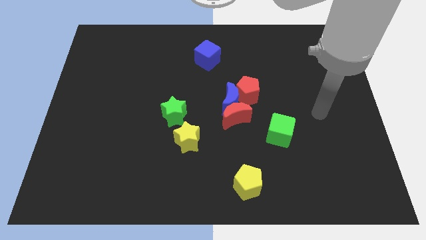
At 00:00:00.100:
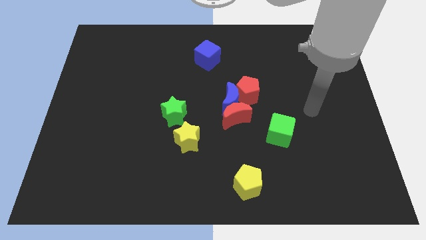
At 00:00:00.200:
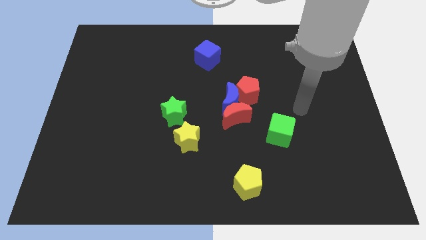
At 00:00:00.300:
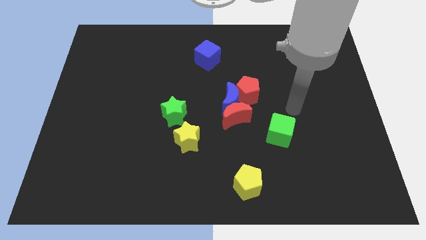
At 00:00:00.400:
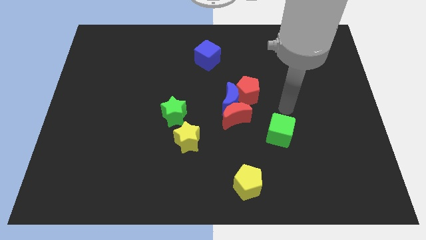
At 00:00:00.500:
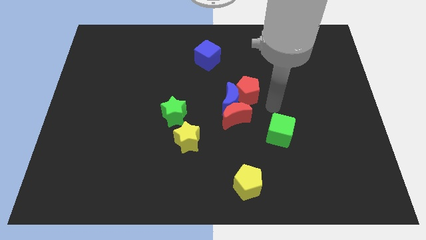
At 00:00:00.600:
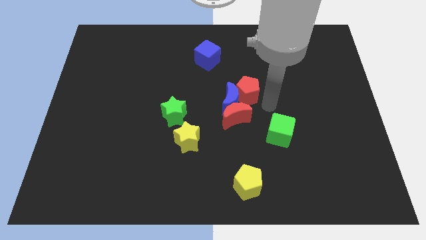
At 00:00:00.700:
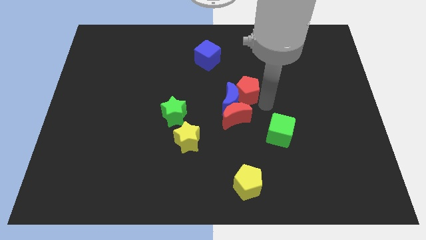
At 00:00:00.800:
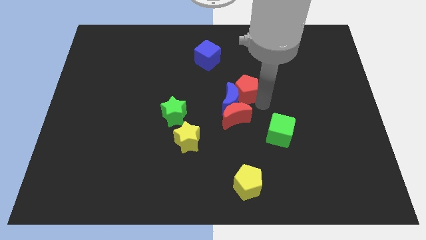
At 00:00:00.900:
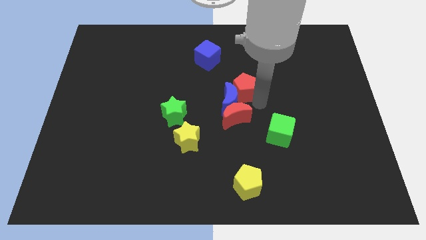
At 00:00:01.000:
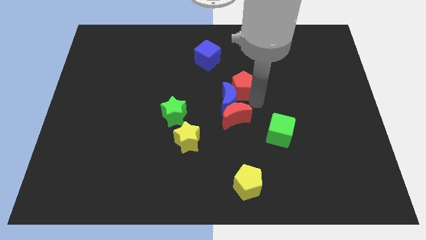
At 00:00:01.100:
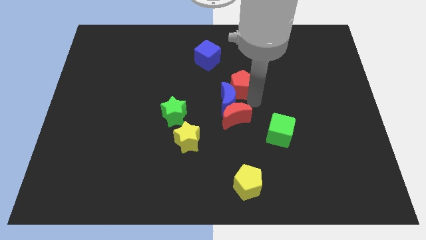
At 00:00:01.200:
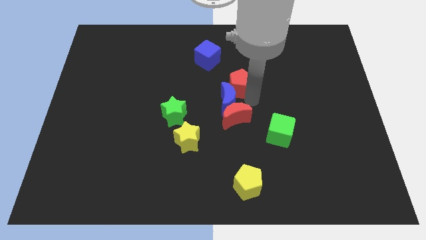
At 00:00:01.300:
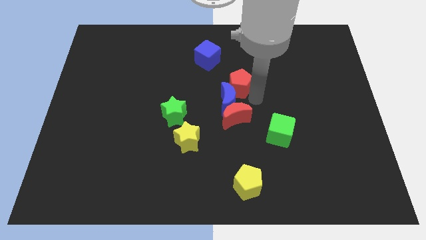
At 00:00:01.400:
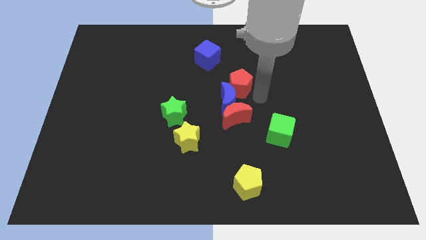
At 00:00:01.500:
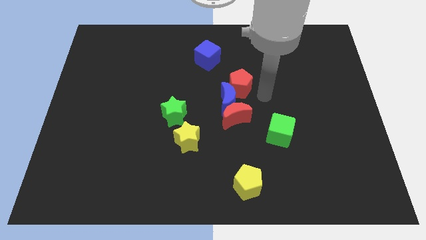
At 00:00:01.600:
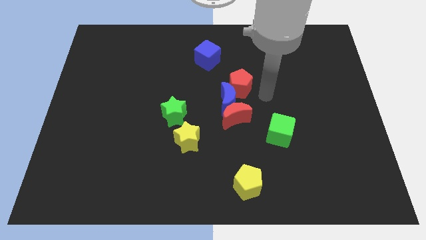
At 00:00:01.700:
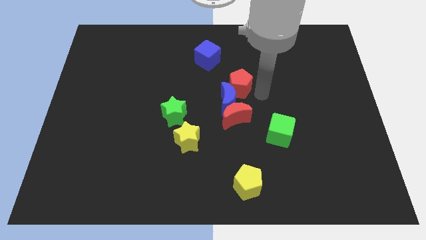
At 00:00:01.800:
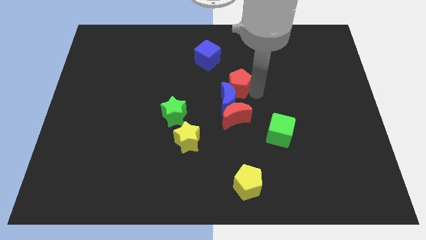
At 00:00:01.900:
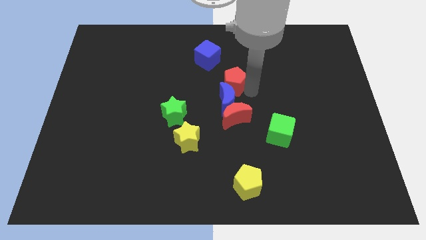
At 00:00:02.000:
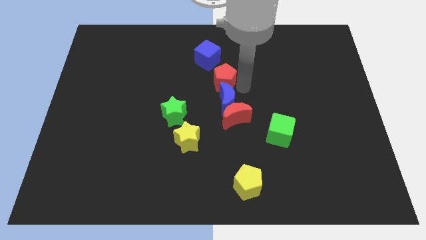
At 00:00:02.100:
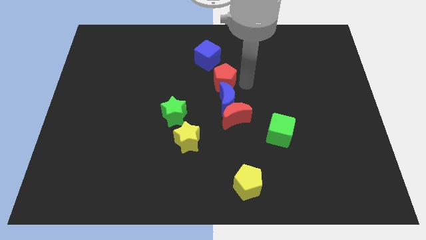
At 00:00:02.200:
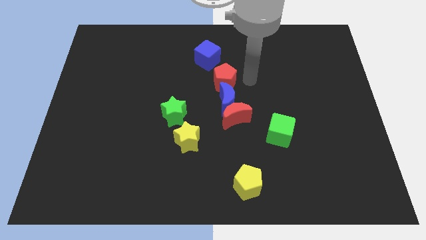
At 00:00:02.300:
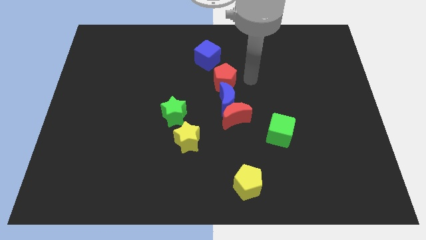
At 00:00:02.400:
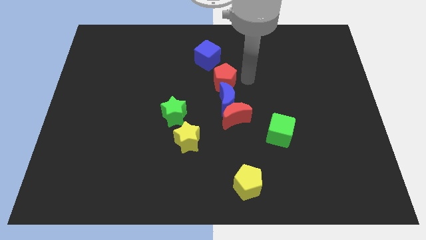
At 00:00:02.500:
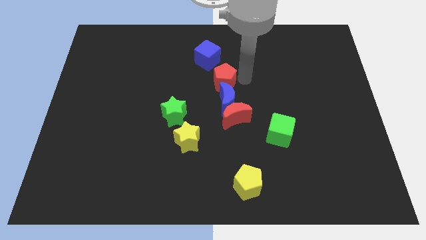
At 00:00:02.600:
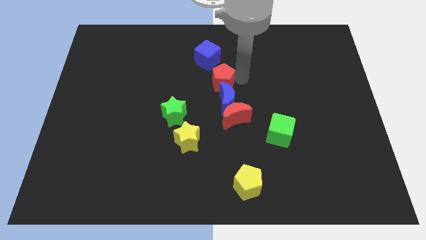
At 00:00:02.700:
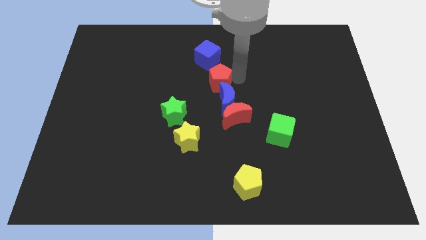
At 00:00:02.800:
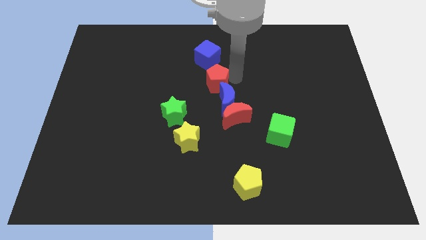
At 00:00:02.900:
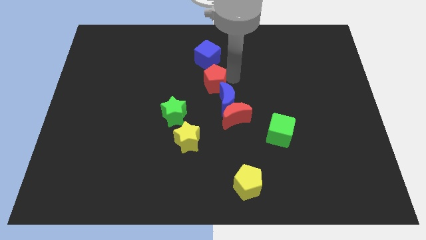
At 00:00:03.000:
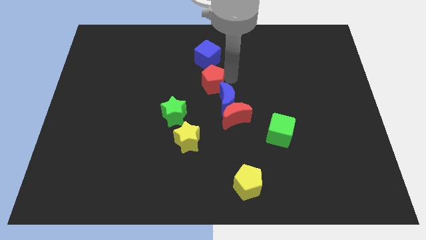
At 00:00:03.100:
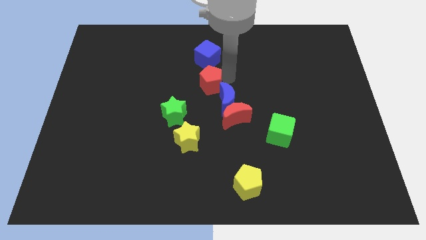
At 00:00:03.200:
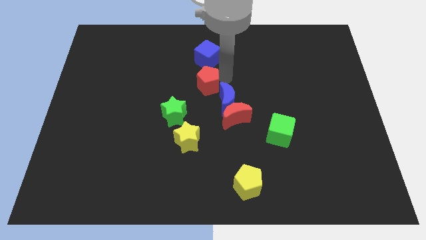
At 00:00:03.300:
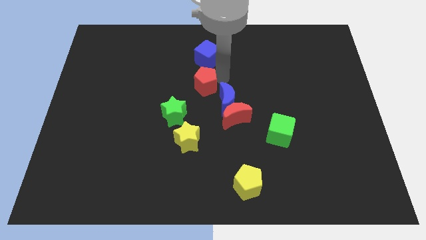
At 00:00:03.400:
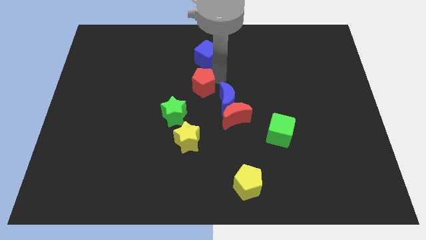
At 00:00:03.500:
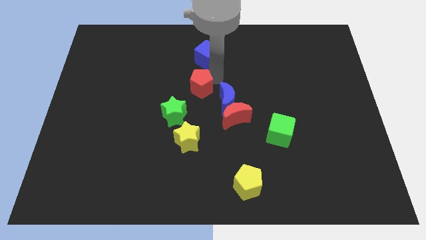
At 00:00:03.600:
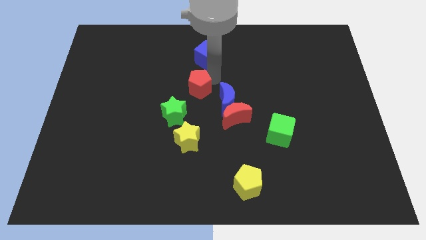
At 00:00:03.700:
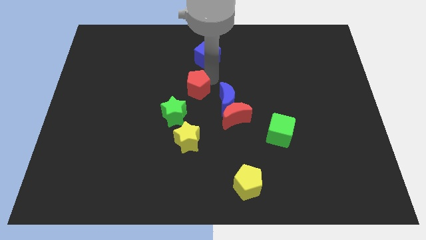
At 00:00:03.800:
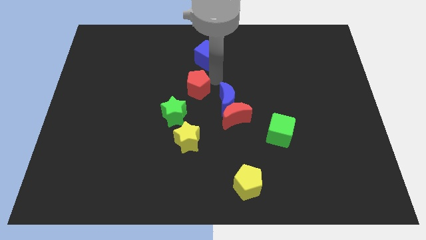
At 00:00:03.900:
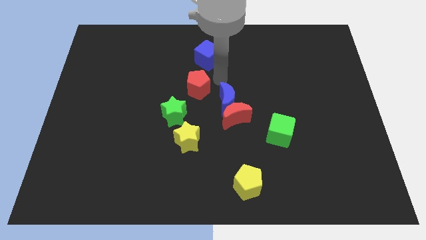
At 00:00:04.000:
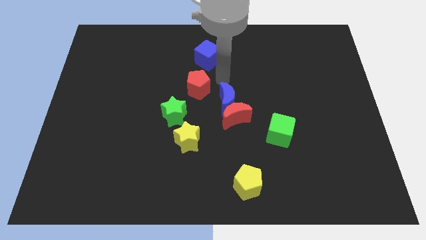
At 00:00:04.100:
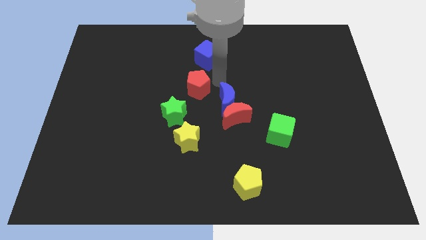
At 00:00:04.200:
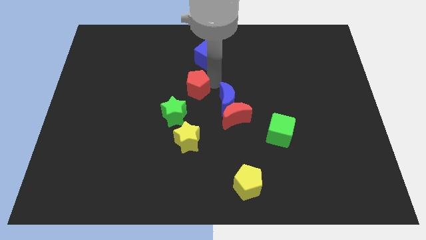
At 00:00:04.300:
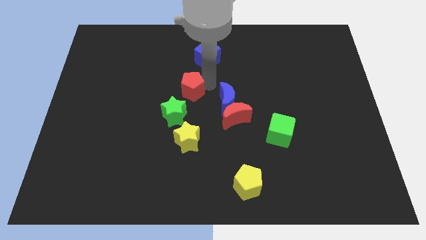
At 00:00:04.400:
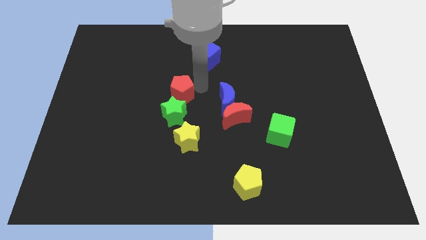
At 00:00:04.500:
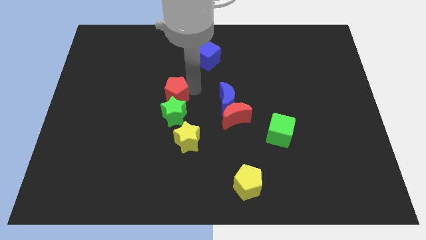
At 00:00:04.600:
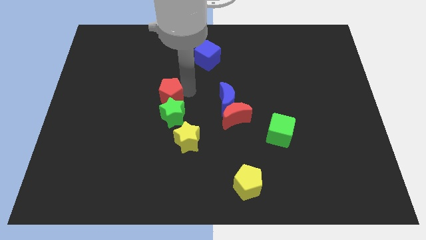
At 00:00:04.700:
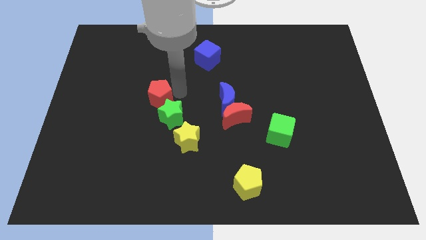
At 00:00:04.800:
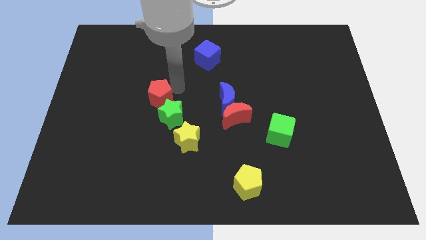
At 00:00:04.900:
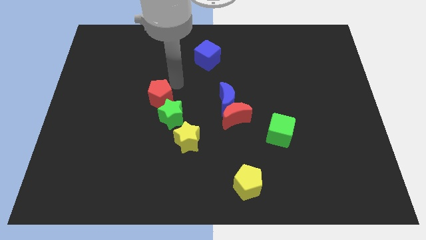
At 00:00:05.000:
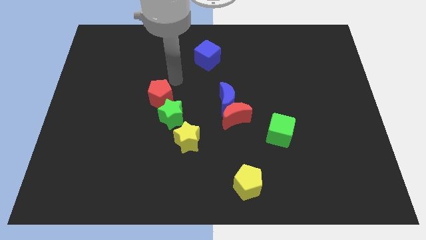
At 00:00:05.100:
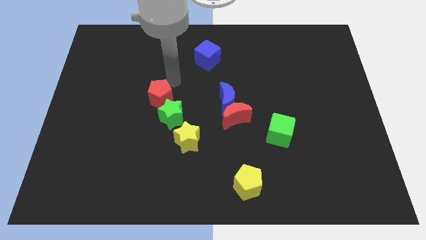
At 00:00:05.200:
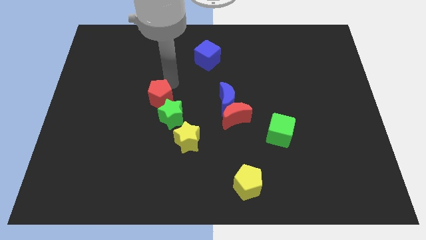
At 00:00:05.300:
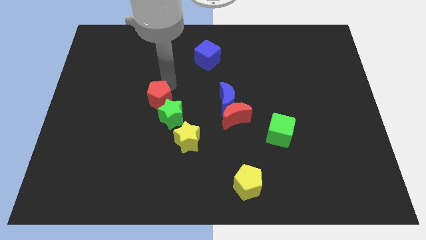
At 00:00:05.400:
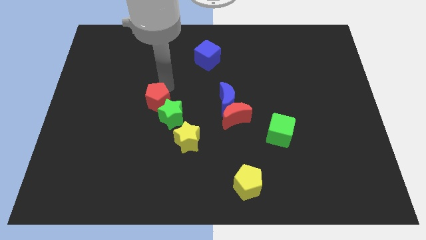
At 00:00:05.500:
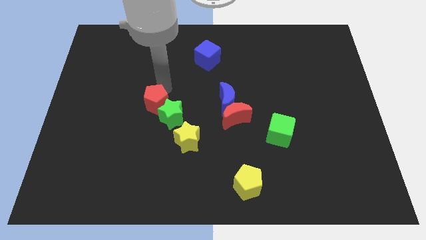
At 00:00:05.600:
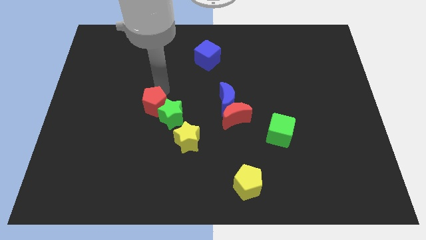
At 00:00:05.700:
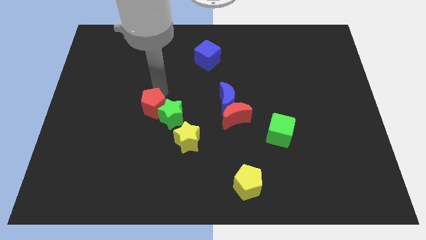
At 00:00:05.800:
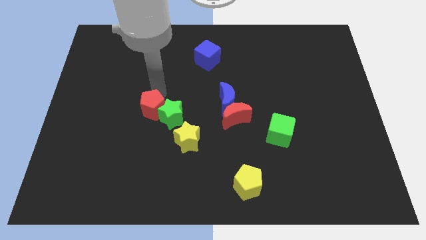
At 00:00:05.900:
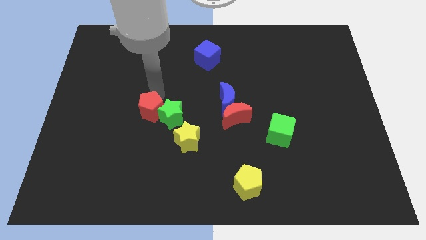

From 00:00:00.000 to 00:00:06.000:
slide the red pentagon to the bottom left side of the green star

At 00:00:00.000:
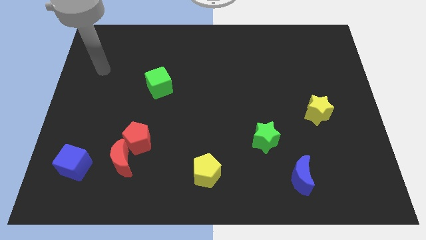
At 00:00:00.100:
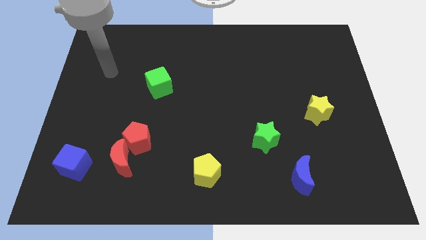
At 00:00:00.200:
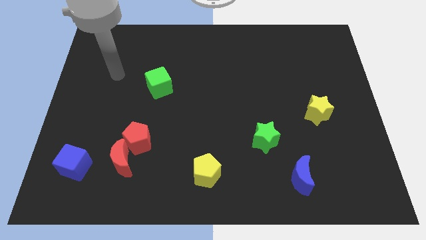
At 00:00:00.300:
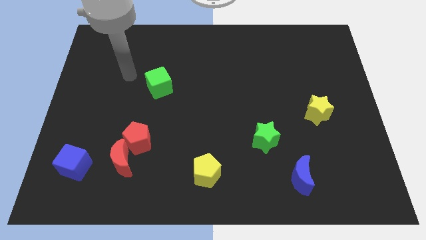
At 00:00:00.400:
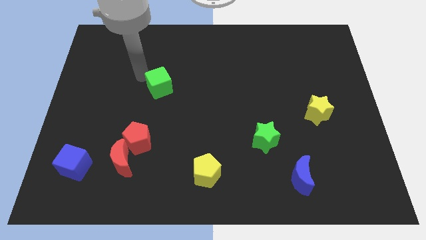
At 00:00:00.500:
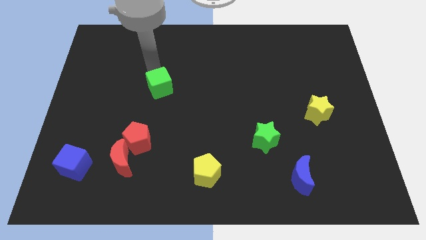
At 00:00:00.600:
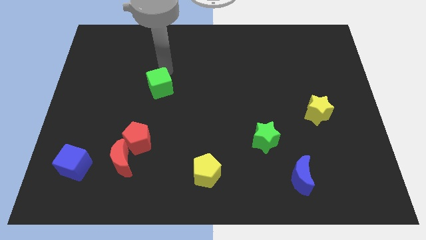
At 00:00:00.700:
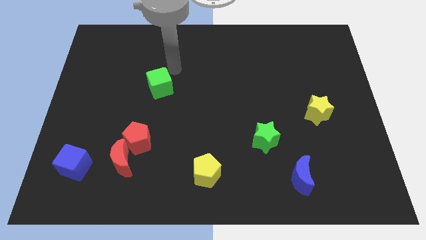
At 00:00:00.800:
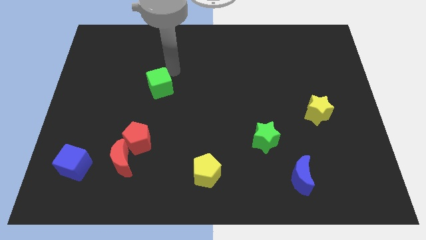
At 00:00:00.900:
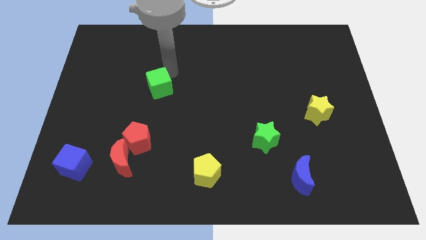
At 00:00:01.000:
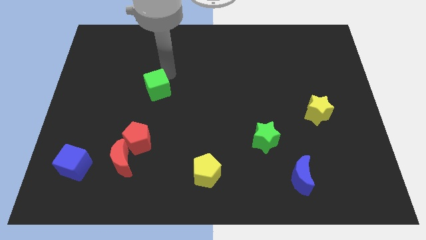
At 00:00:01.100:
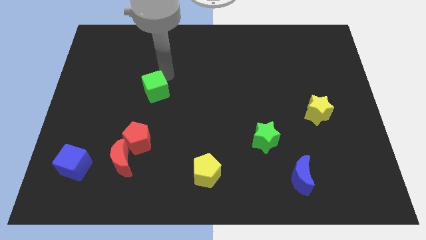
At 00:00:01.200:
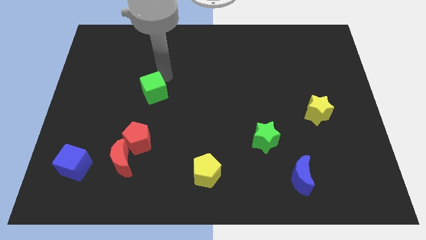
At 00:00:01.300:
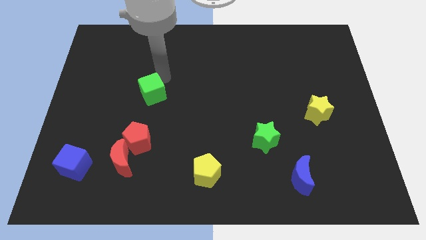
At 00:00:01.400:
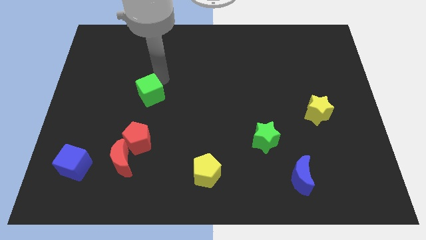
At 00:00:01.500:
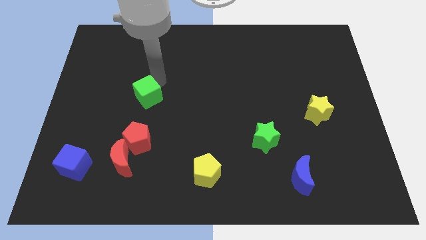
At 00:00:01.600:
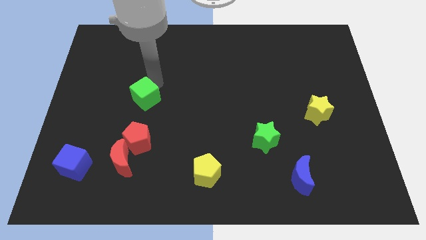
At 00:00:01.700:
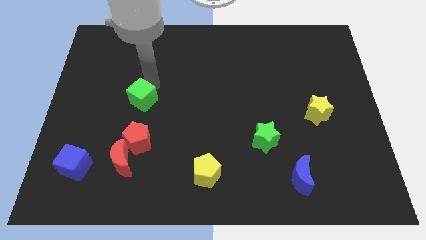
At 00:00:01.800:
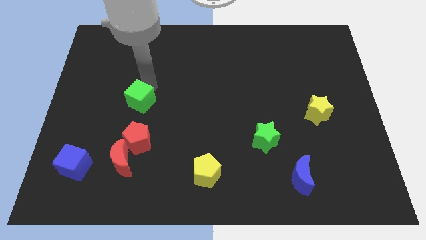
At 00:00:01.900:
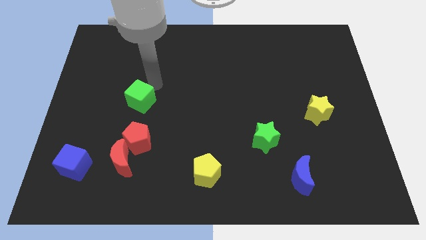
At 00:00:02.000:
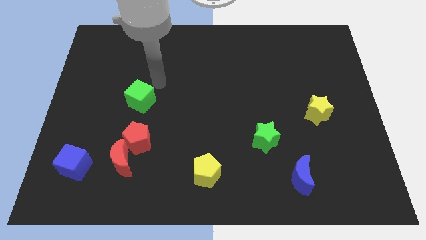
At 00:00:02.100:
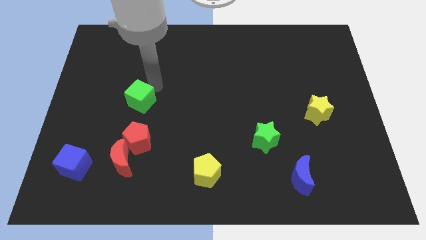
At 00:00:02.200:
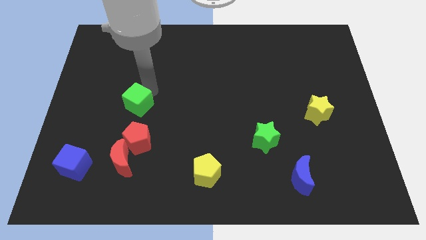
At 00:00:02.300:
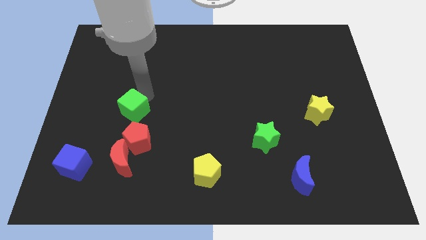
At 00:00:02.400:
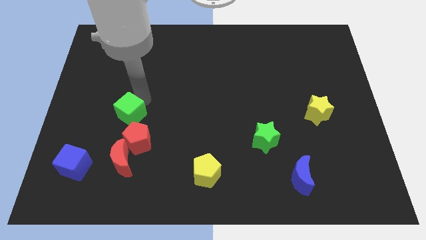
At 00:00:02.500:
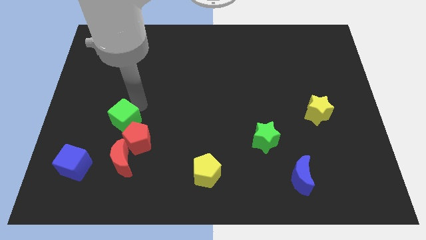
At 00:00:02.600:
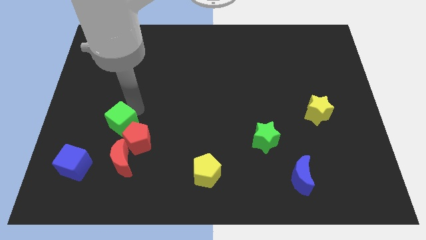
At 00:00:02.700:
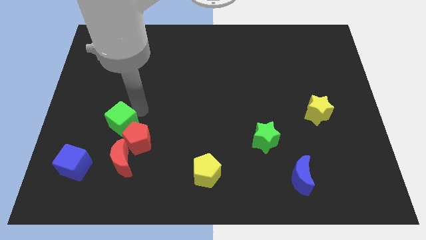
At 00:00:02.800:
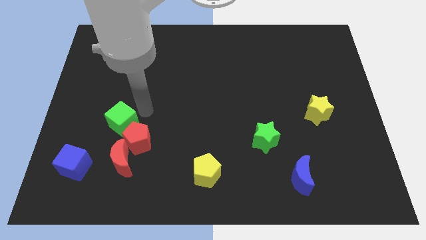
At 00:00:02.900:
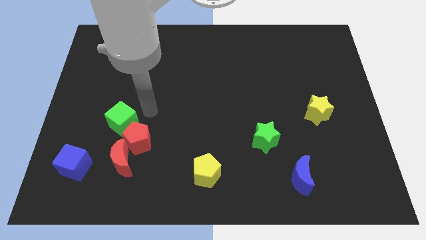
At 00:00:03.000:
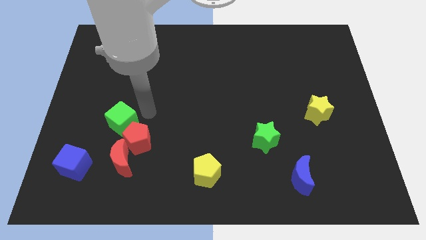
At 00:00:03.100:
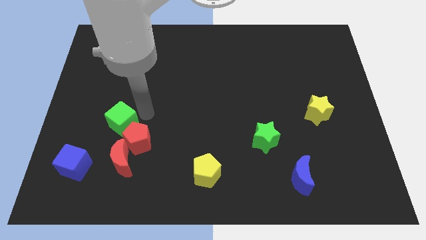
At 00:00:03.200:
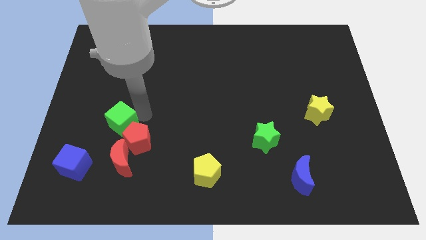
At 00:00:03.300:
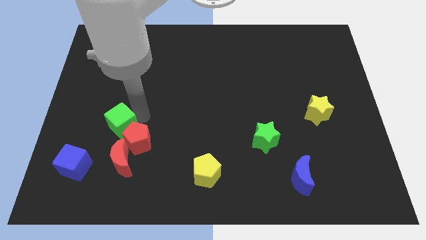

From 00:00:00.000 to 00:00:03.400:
move the green cube left of the red pentagon
